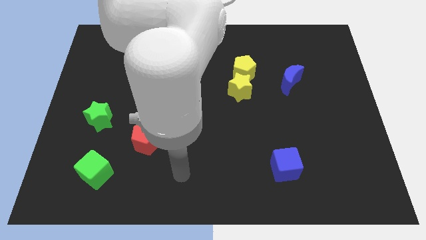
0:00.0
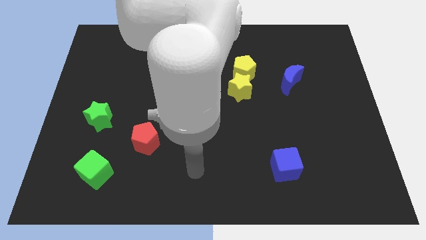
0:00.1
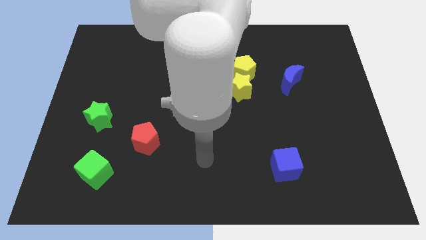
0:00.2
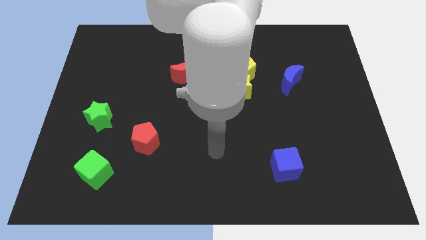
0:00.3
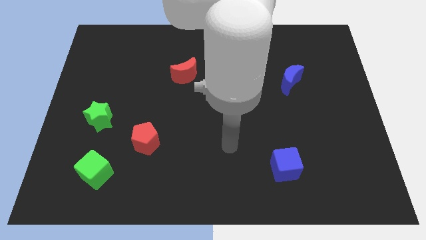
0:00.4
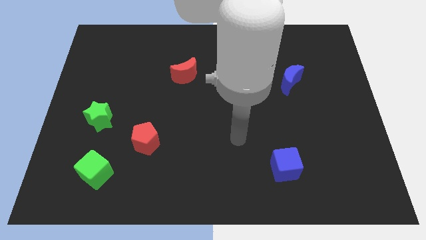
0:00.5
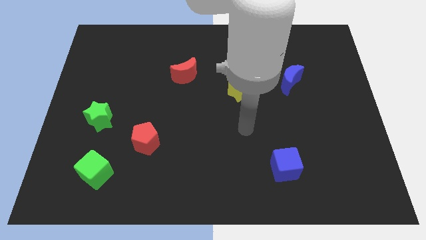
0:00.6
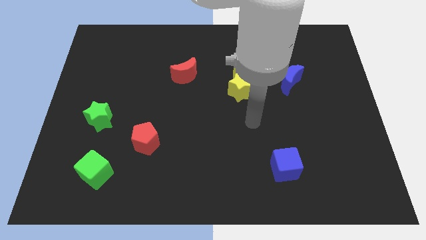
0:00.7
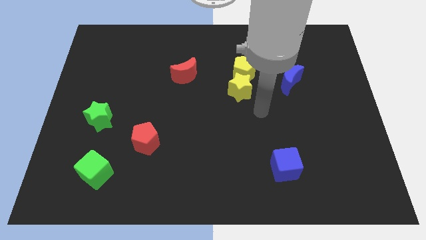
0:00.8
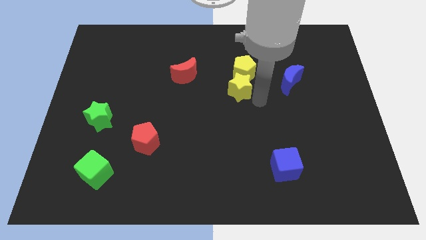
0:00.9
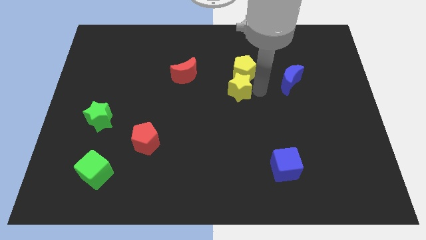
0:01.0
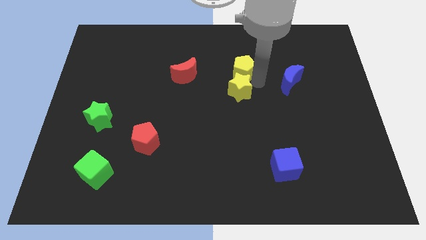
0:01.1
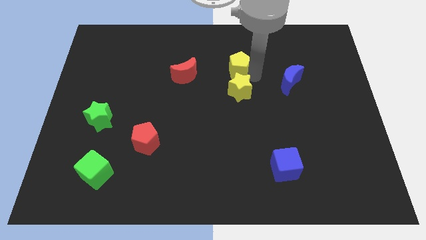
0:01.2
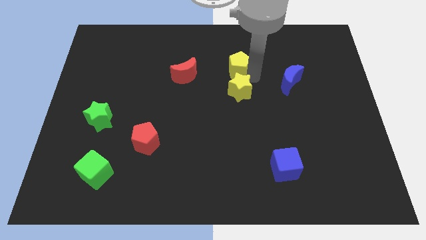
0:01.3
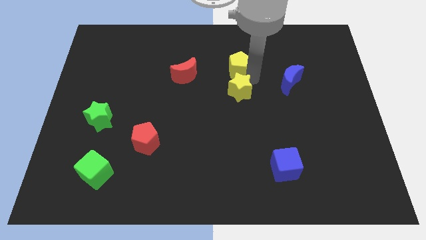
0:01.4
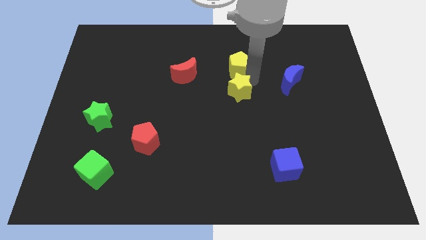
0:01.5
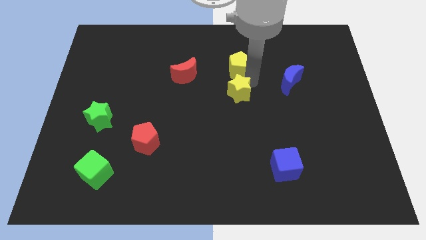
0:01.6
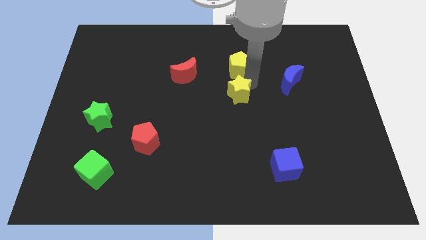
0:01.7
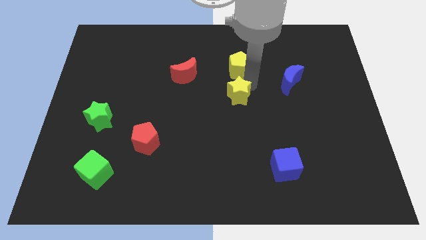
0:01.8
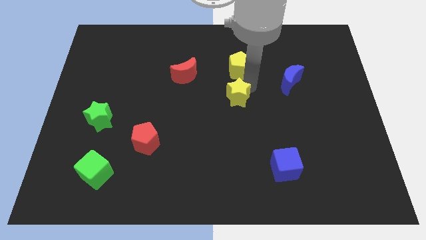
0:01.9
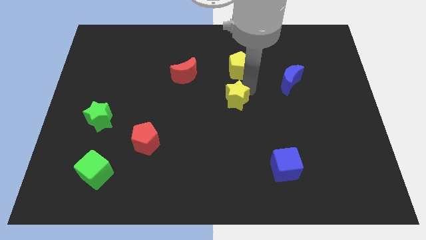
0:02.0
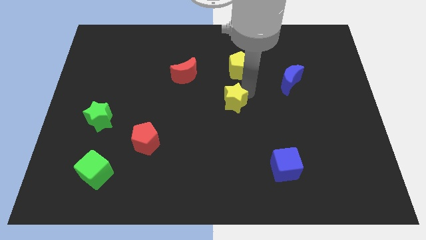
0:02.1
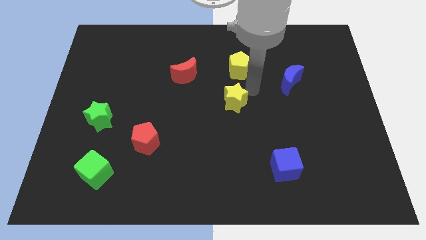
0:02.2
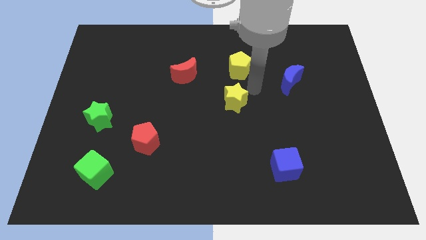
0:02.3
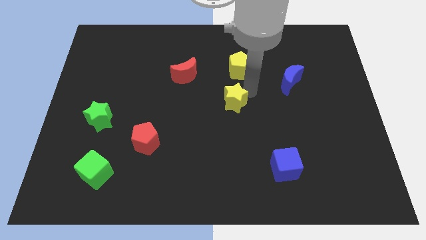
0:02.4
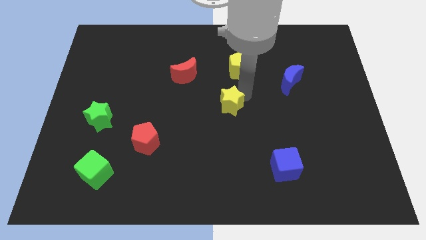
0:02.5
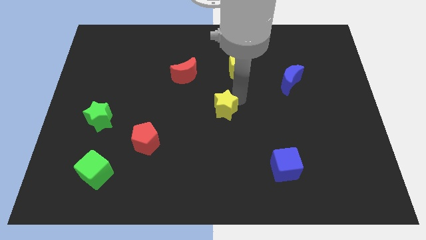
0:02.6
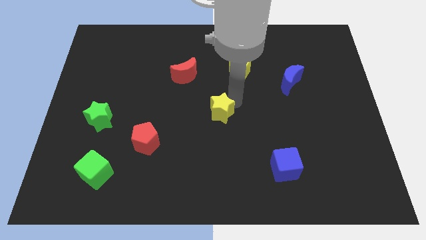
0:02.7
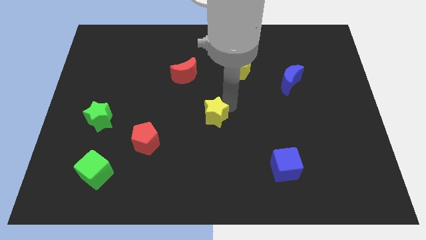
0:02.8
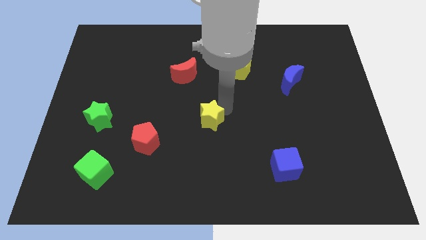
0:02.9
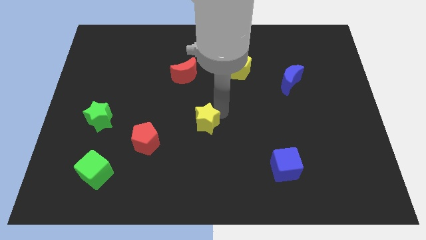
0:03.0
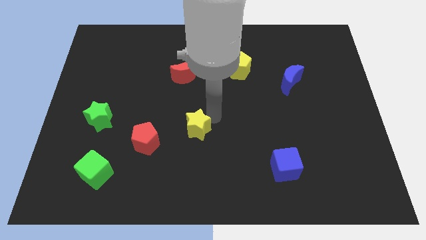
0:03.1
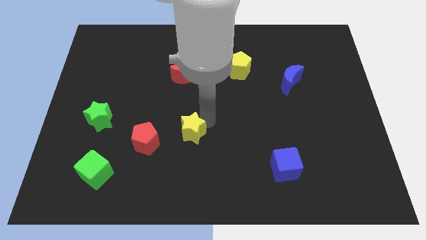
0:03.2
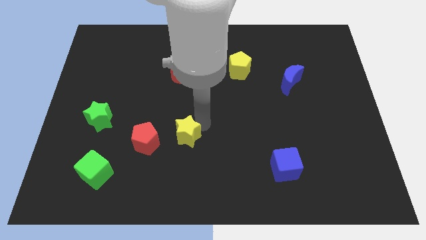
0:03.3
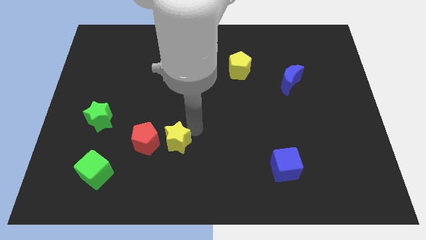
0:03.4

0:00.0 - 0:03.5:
push the yellow star diagonally down and to the left

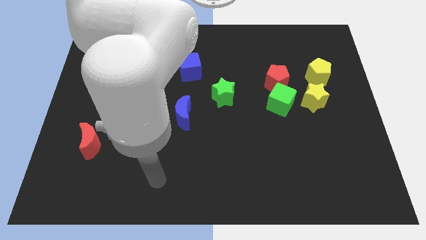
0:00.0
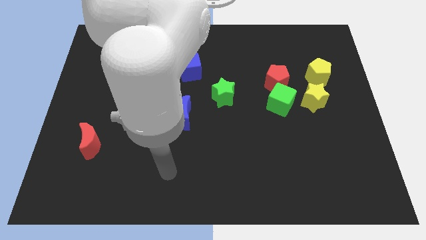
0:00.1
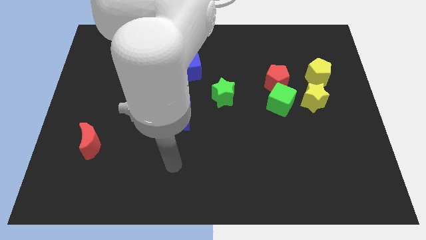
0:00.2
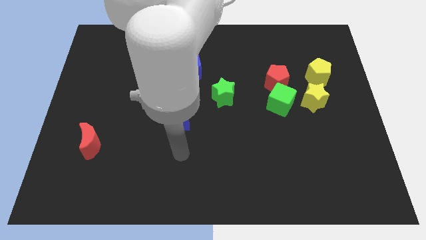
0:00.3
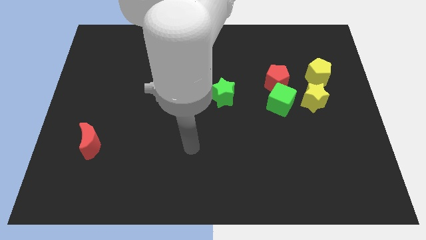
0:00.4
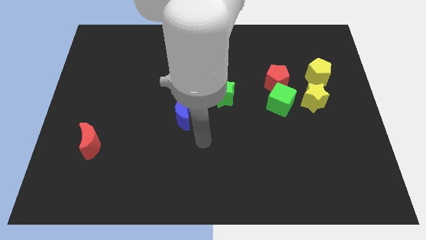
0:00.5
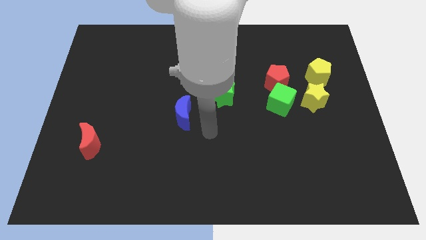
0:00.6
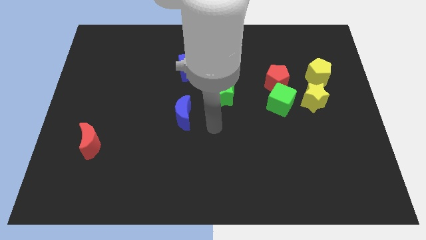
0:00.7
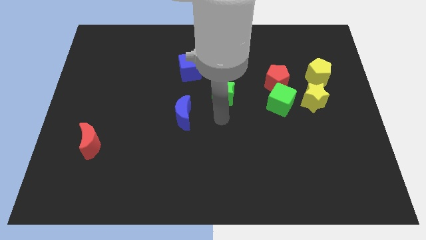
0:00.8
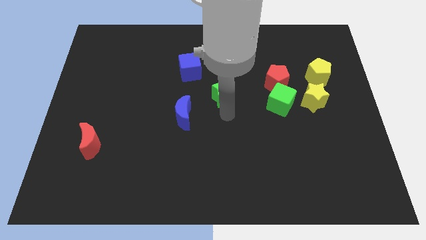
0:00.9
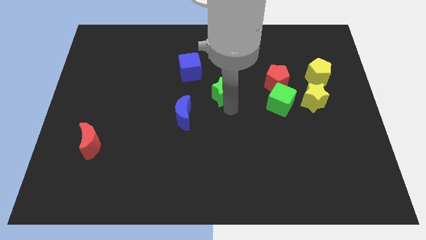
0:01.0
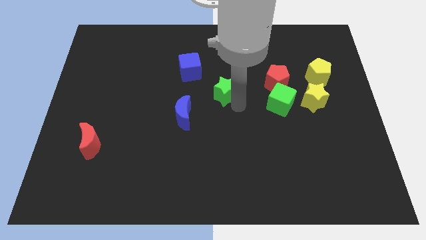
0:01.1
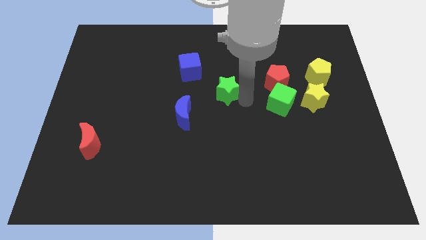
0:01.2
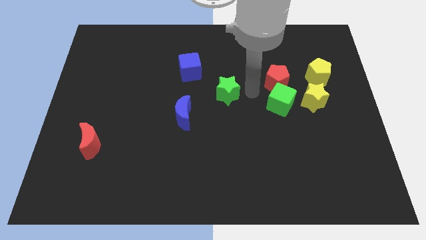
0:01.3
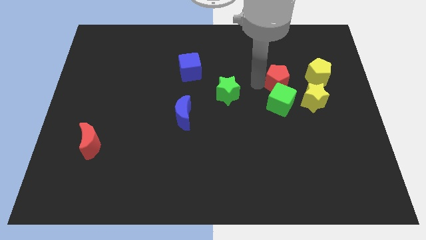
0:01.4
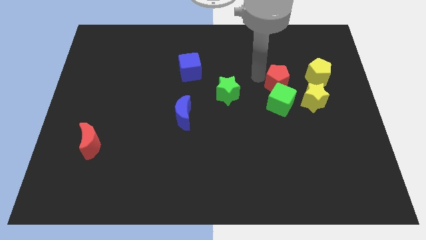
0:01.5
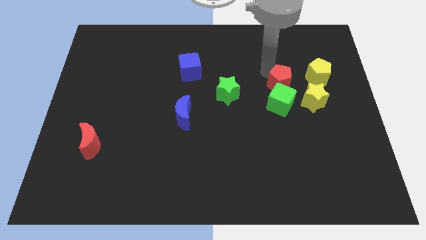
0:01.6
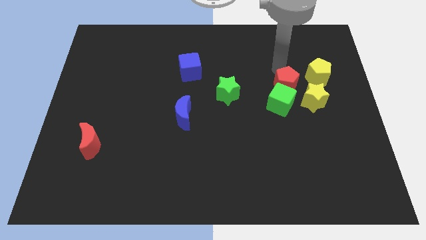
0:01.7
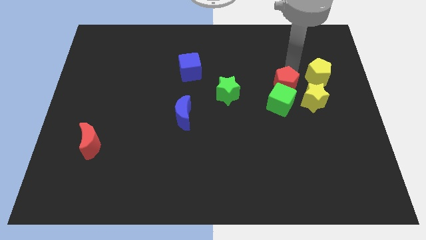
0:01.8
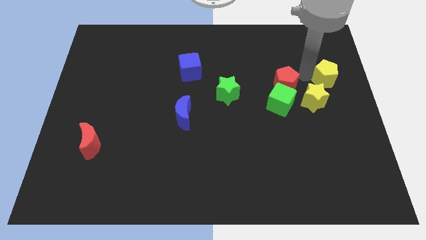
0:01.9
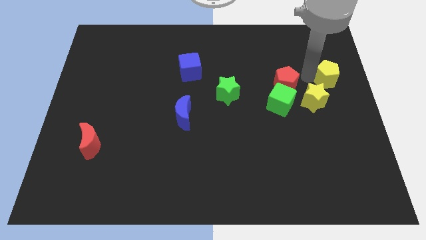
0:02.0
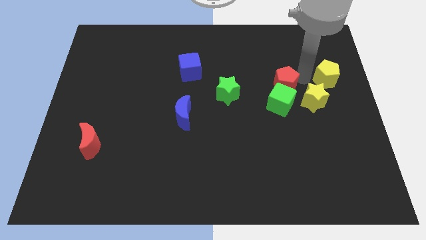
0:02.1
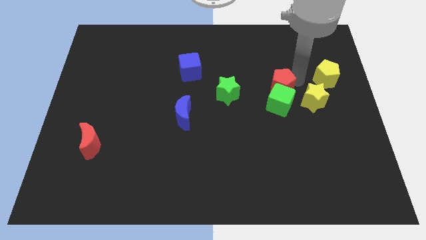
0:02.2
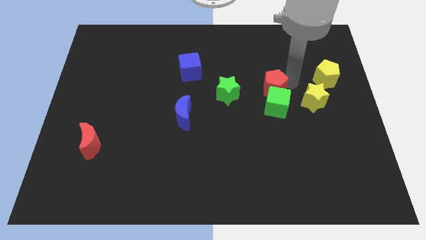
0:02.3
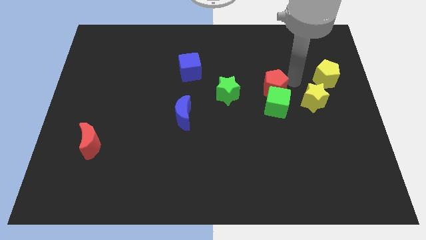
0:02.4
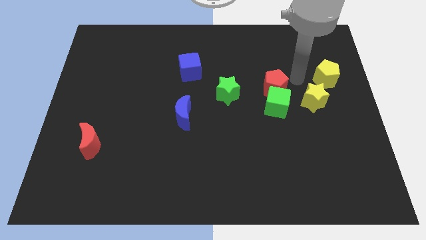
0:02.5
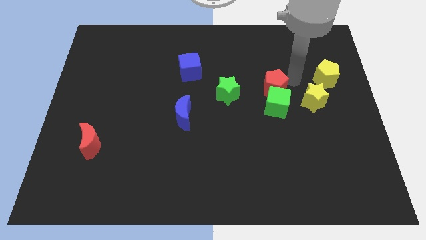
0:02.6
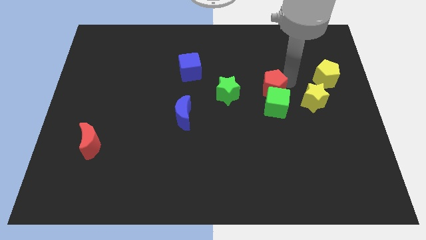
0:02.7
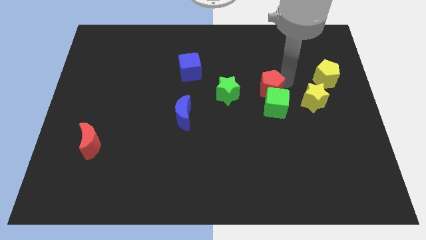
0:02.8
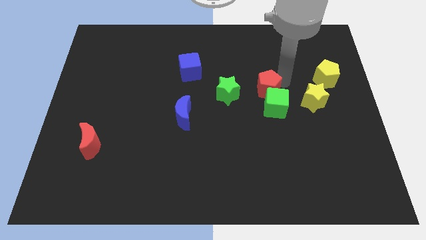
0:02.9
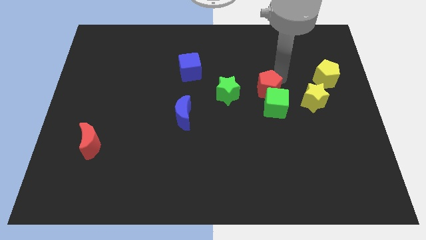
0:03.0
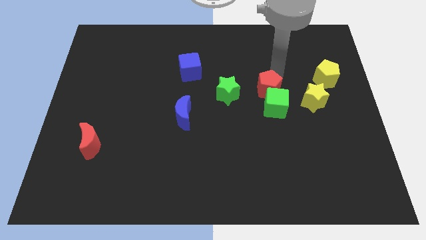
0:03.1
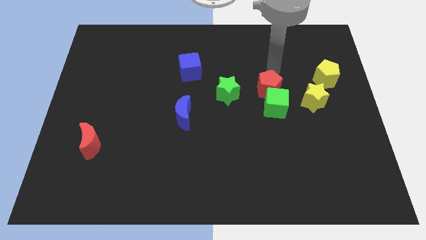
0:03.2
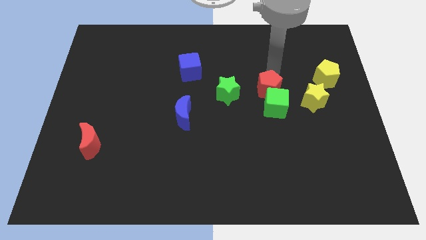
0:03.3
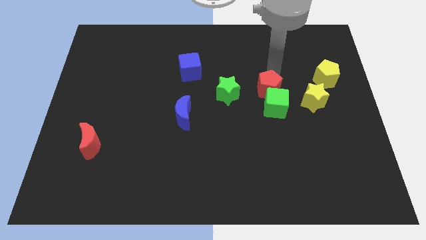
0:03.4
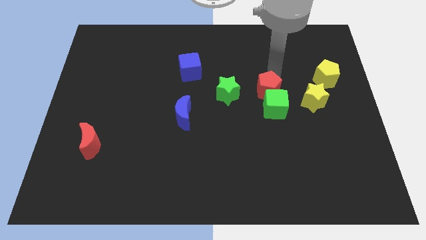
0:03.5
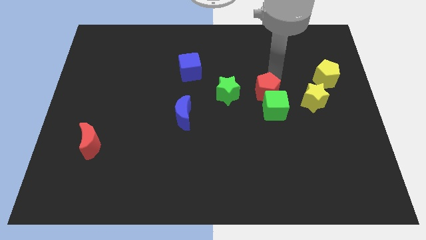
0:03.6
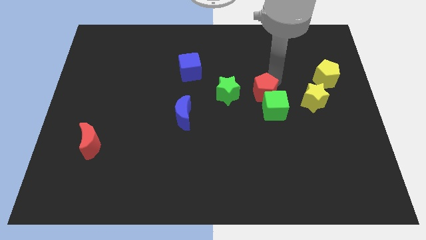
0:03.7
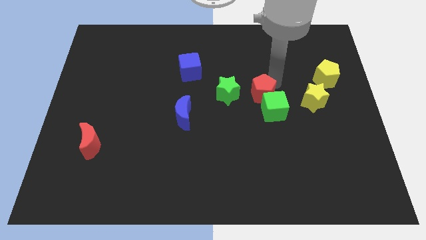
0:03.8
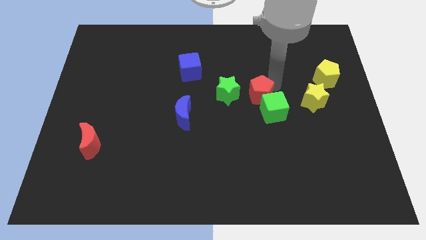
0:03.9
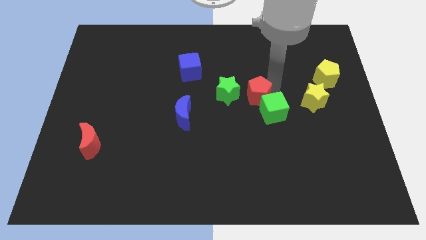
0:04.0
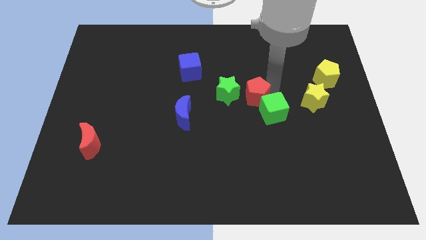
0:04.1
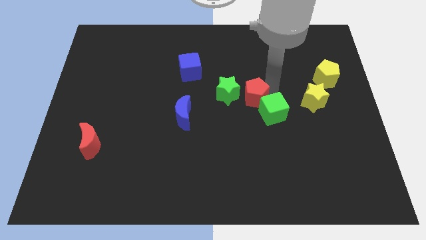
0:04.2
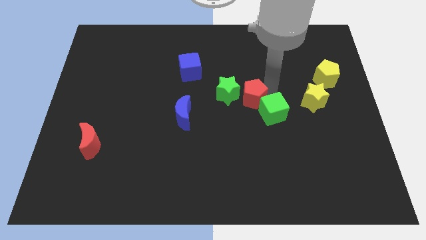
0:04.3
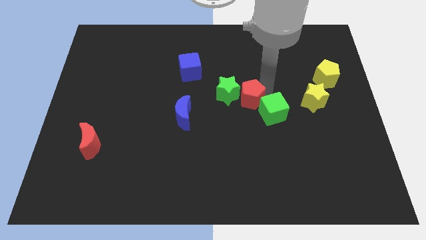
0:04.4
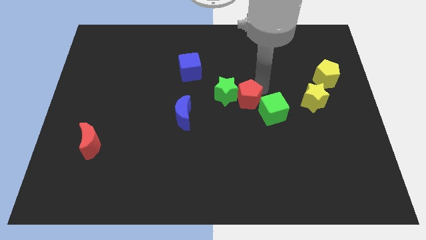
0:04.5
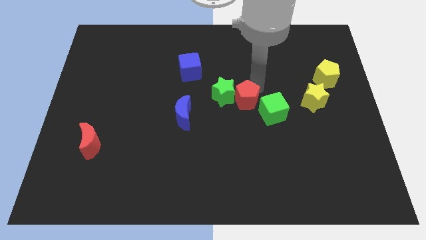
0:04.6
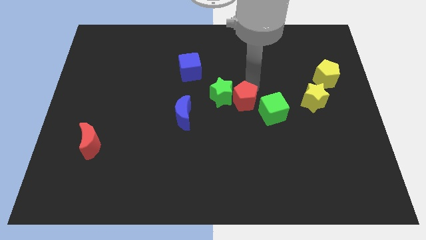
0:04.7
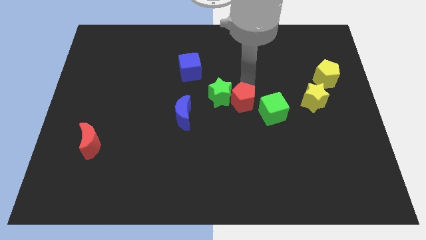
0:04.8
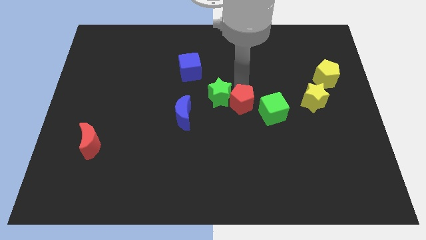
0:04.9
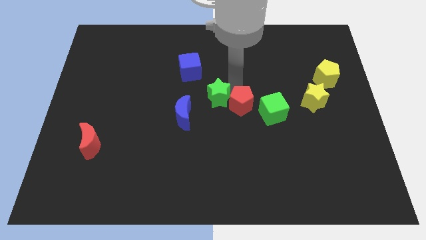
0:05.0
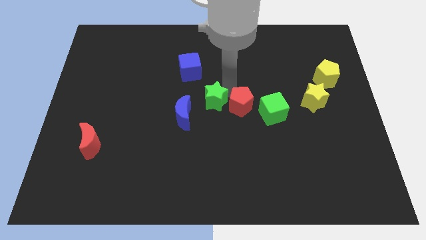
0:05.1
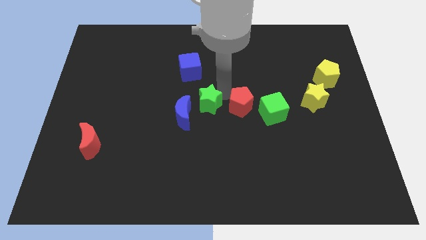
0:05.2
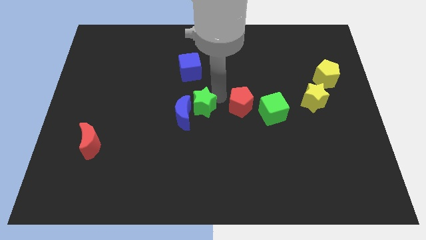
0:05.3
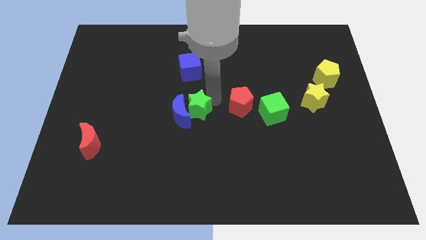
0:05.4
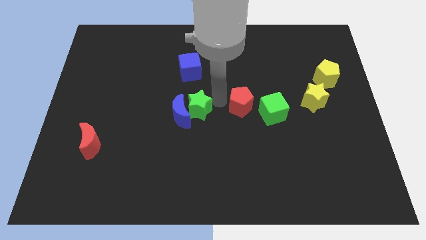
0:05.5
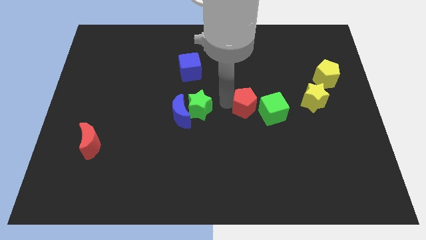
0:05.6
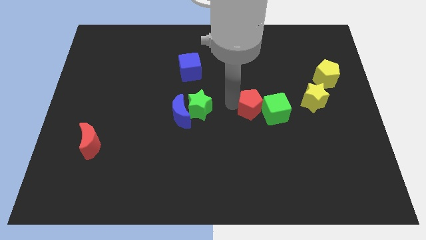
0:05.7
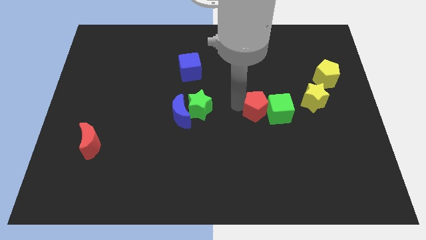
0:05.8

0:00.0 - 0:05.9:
move the red pentagon downwards somewhat
